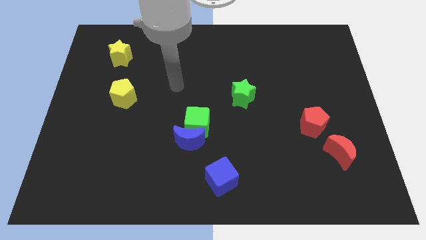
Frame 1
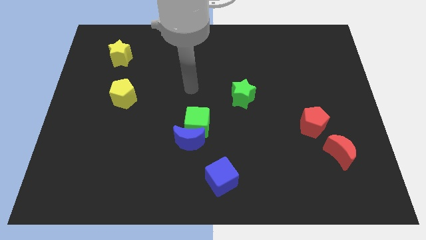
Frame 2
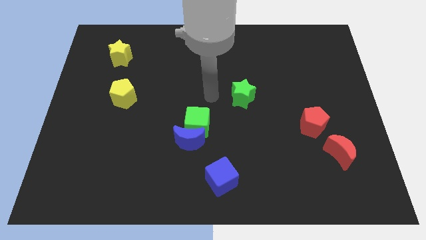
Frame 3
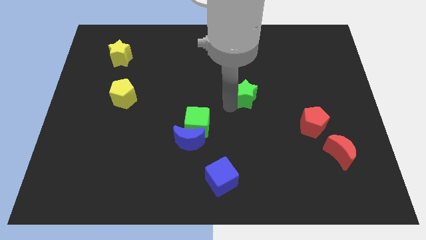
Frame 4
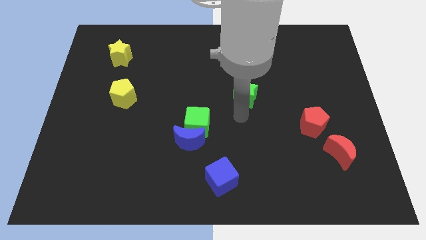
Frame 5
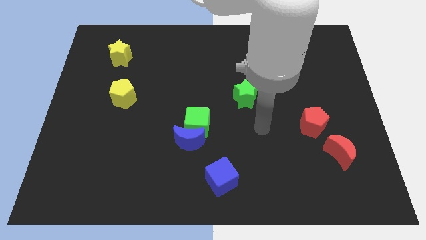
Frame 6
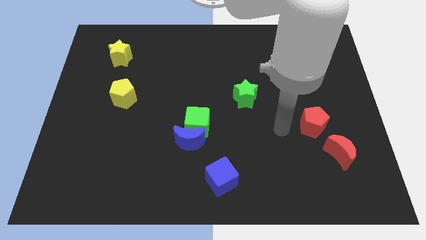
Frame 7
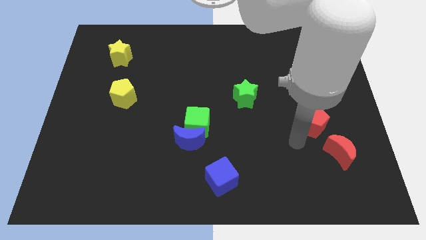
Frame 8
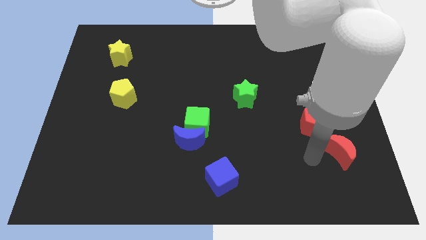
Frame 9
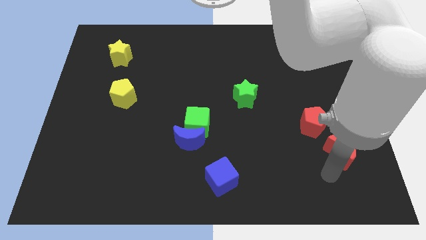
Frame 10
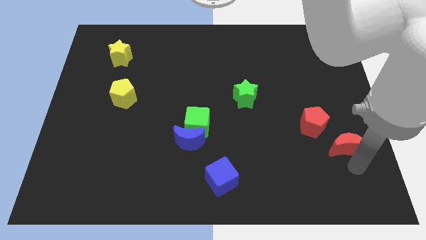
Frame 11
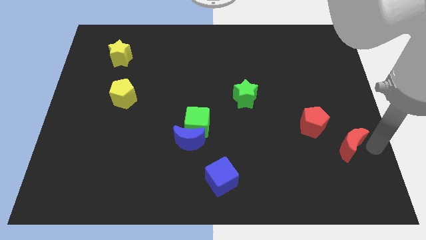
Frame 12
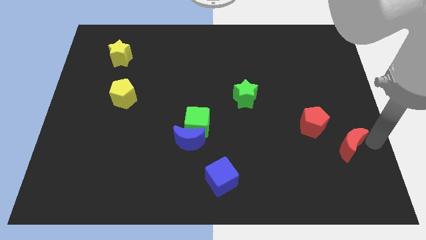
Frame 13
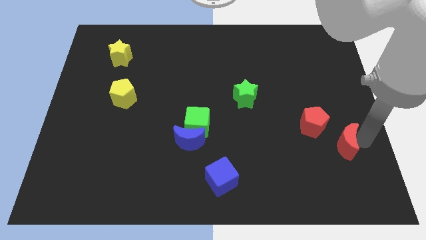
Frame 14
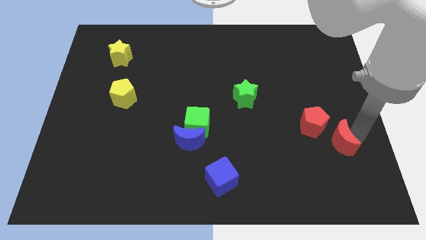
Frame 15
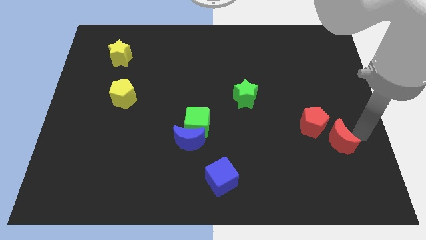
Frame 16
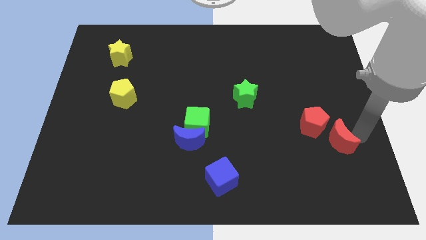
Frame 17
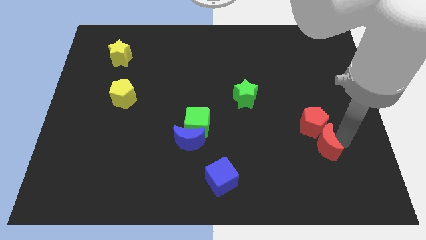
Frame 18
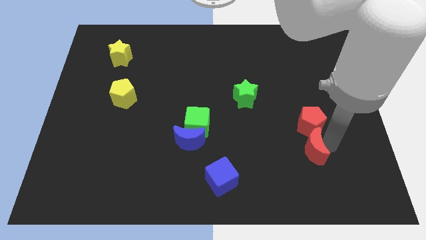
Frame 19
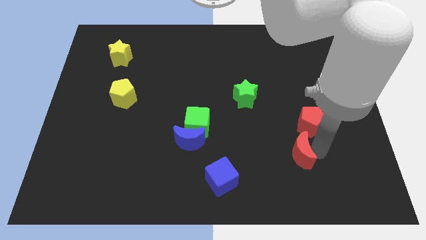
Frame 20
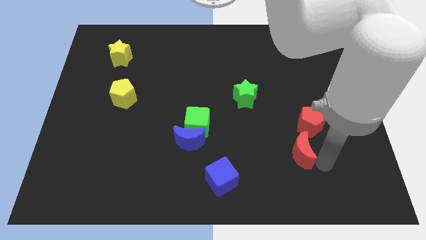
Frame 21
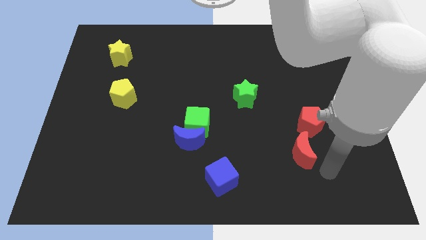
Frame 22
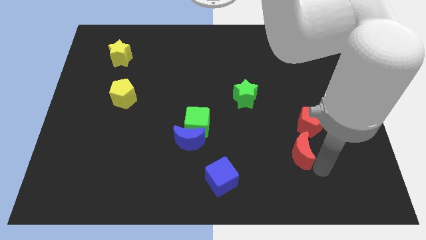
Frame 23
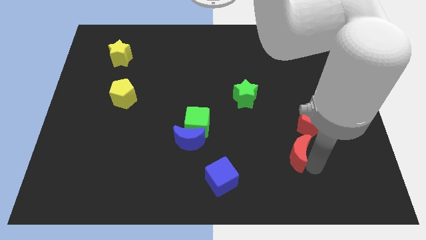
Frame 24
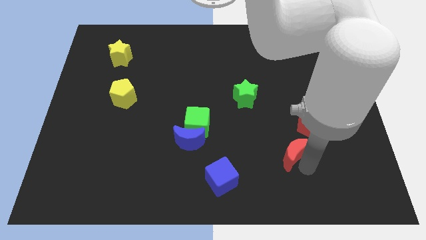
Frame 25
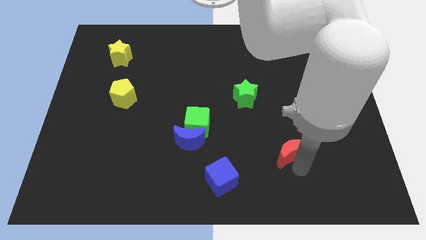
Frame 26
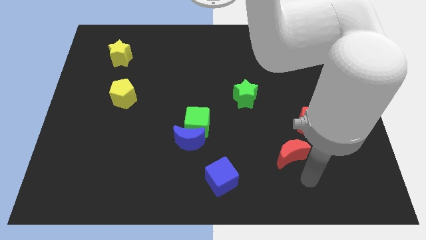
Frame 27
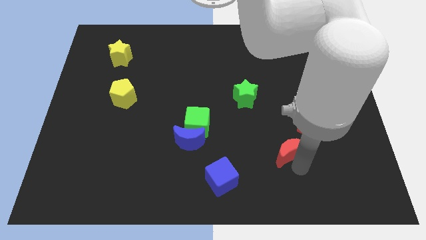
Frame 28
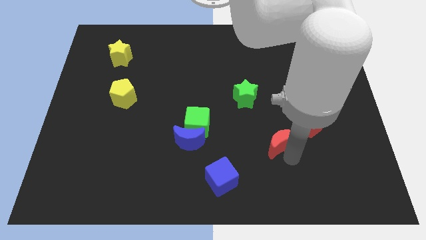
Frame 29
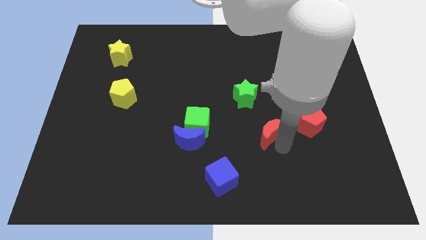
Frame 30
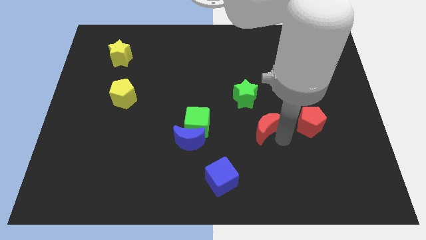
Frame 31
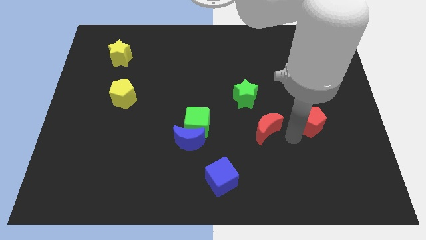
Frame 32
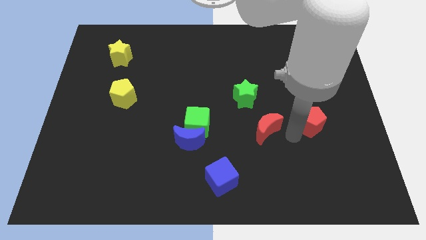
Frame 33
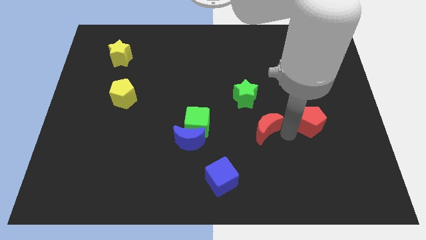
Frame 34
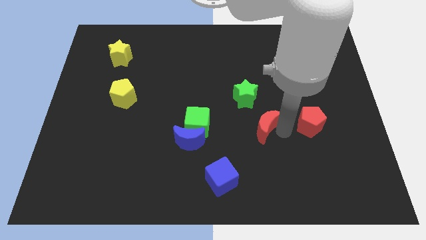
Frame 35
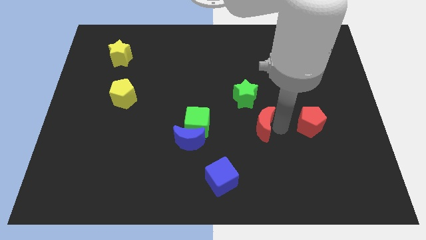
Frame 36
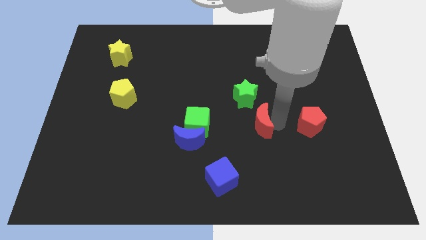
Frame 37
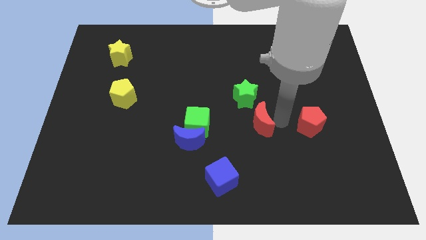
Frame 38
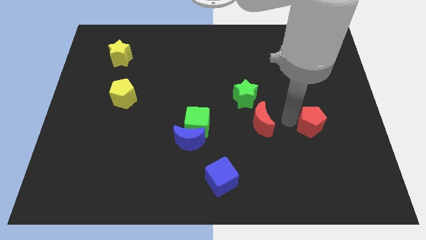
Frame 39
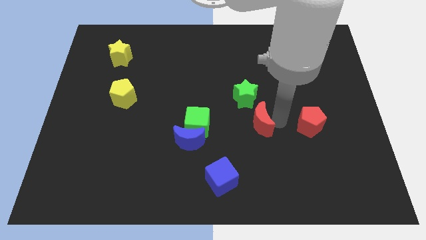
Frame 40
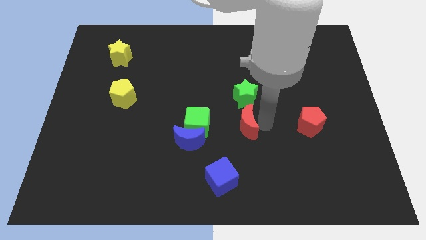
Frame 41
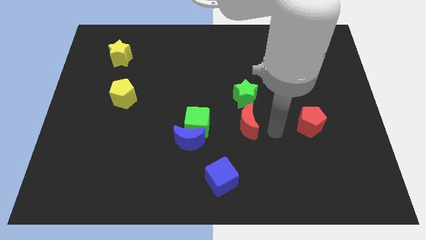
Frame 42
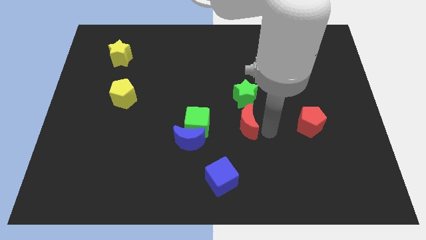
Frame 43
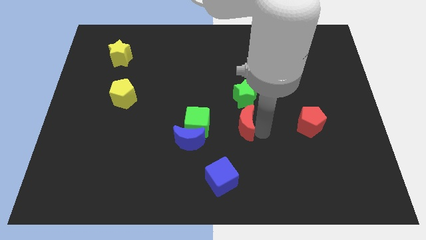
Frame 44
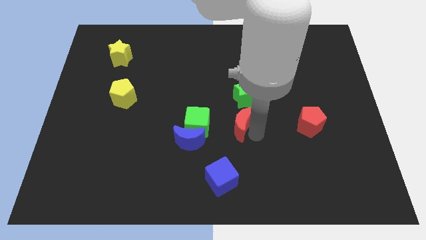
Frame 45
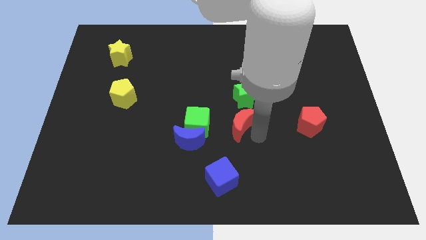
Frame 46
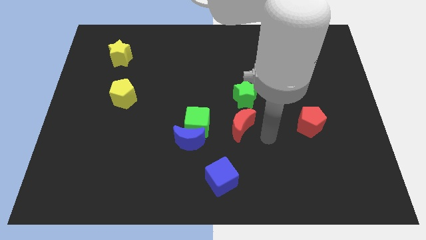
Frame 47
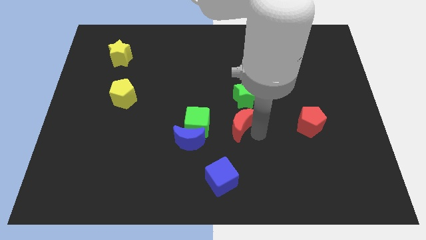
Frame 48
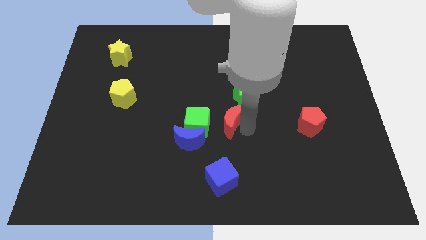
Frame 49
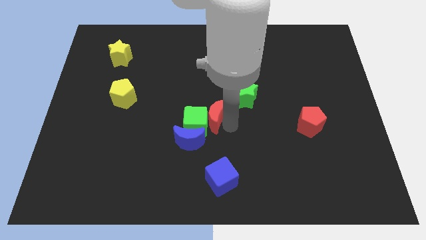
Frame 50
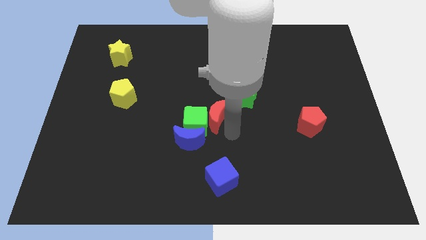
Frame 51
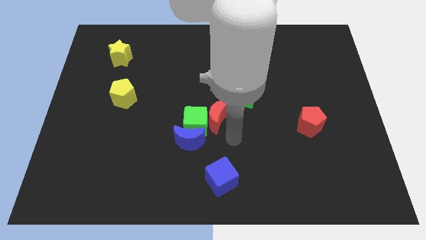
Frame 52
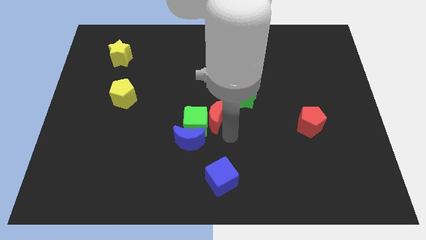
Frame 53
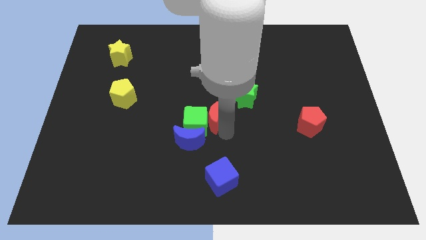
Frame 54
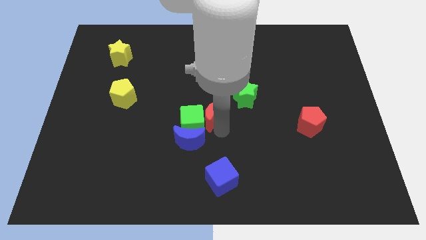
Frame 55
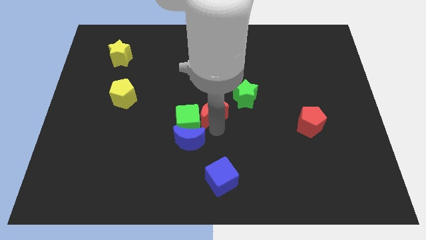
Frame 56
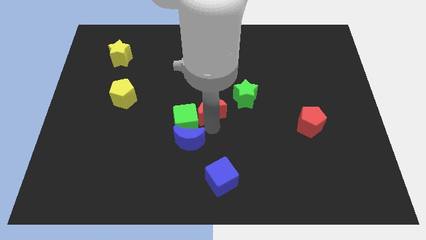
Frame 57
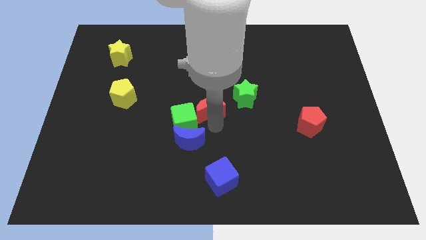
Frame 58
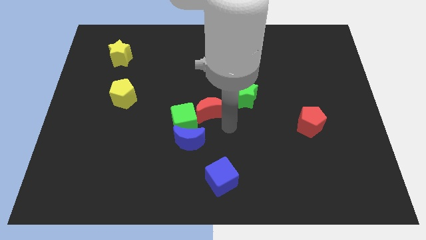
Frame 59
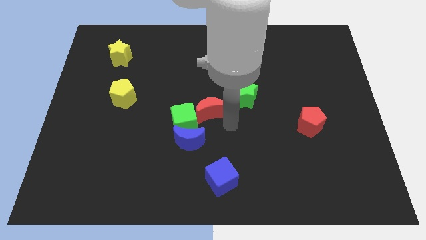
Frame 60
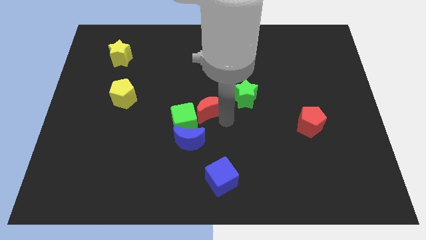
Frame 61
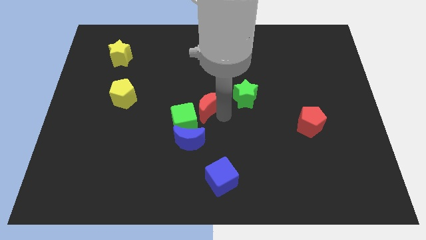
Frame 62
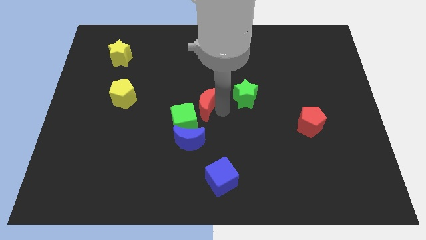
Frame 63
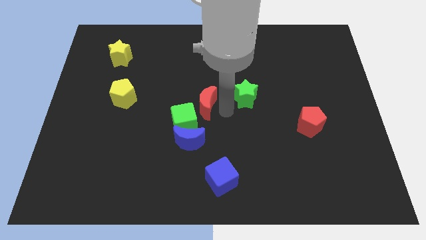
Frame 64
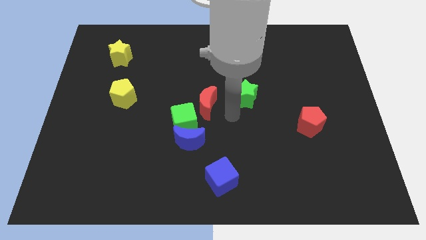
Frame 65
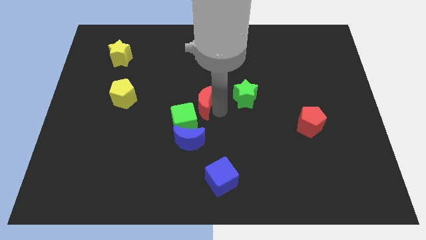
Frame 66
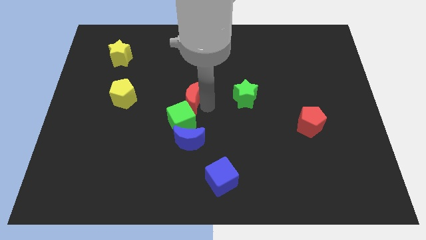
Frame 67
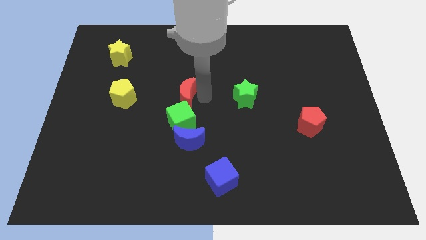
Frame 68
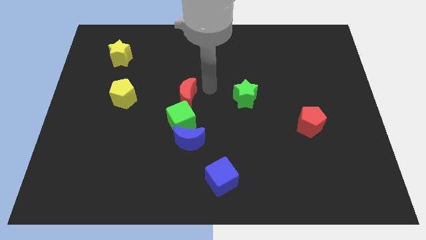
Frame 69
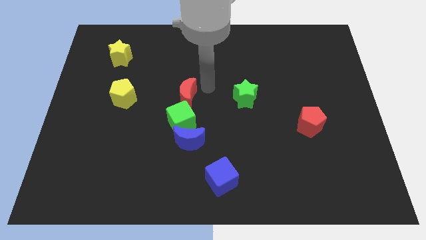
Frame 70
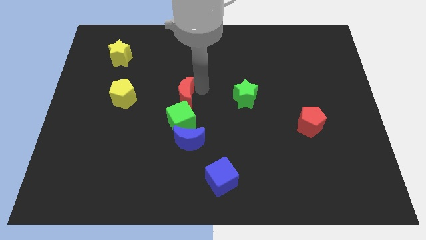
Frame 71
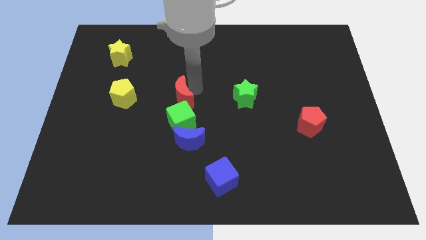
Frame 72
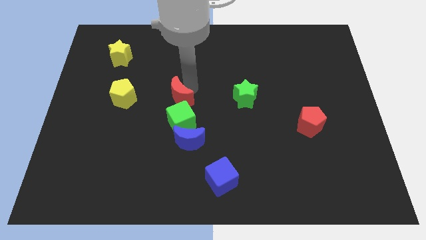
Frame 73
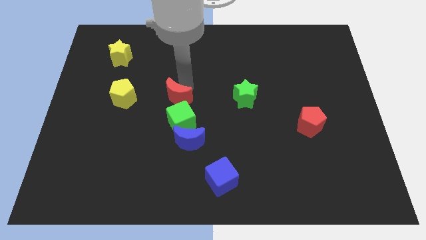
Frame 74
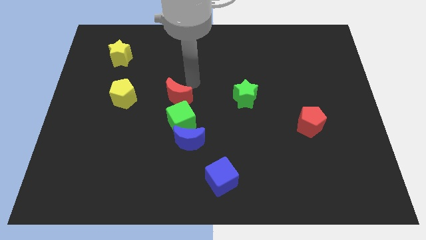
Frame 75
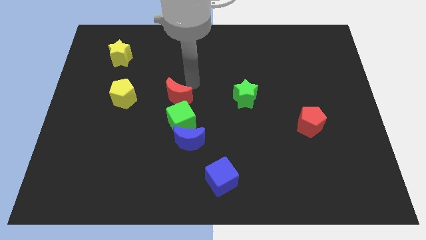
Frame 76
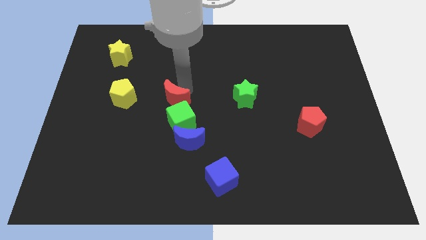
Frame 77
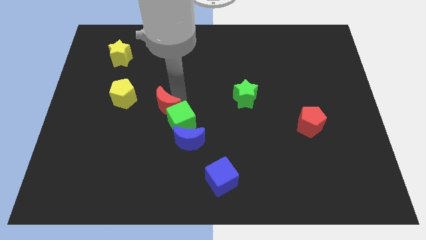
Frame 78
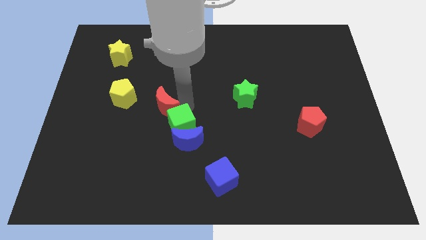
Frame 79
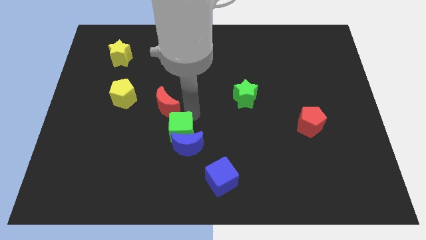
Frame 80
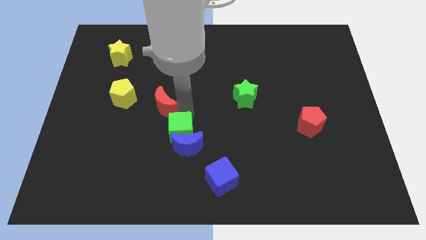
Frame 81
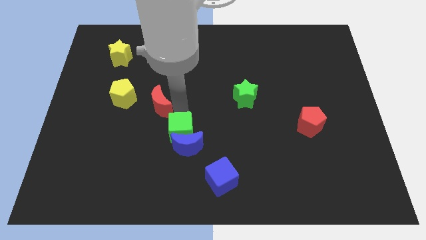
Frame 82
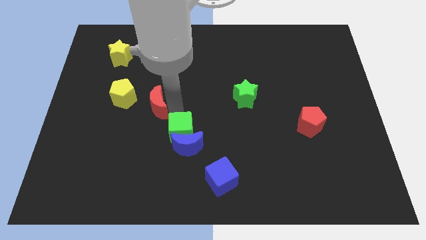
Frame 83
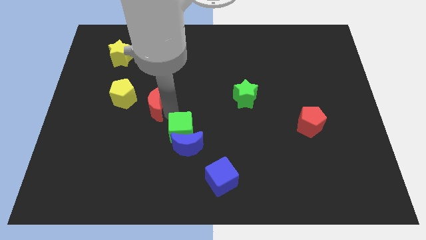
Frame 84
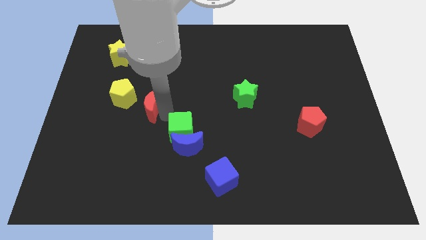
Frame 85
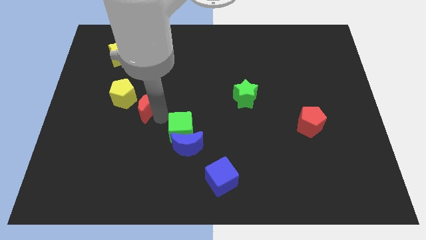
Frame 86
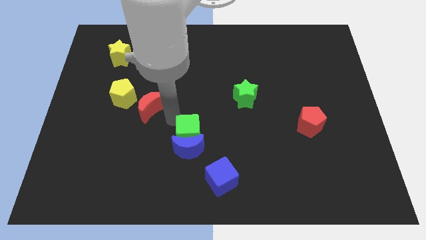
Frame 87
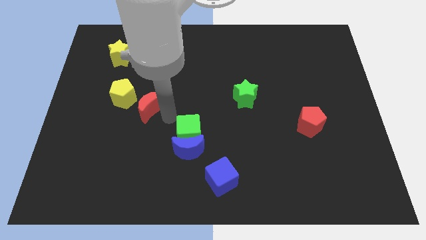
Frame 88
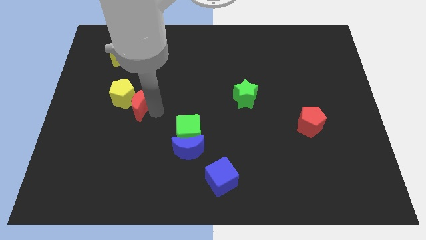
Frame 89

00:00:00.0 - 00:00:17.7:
move the red moon to the yellow pentagon
